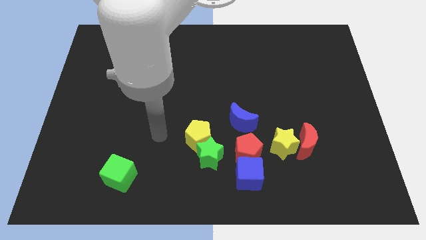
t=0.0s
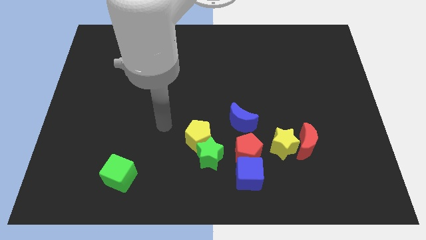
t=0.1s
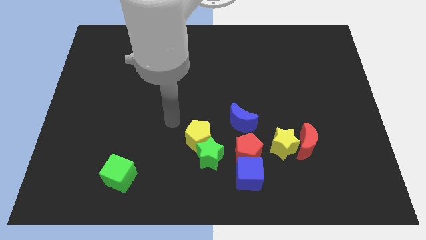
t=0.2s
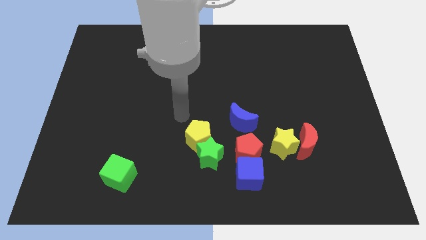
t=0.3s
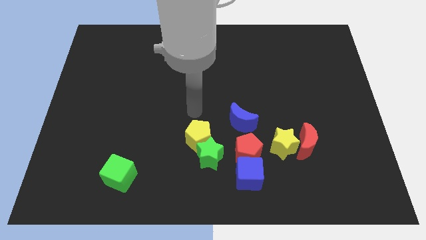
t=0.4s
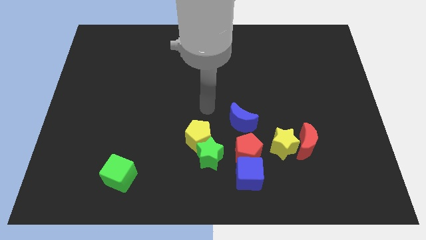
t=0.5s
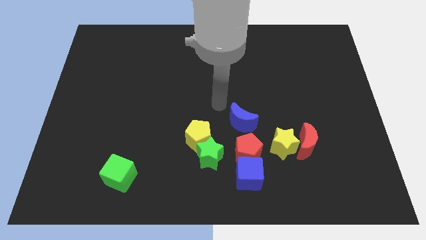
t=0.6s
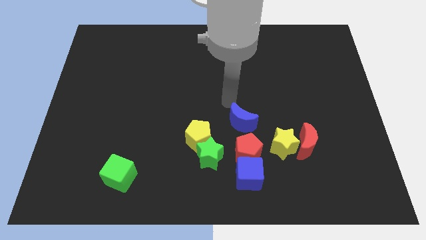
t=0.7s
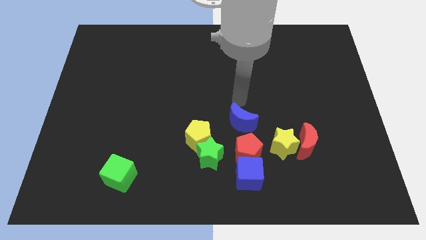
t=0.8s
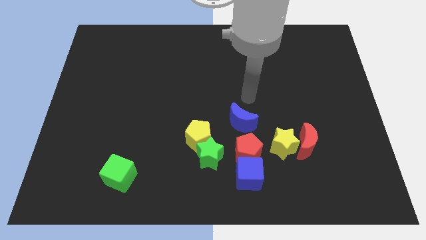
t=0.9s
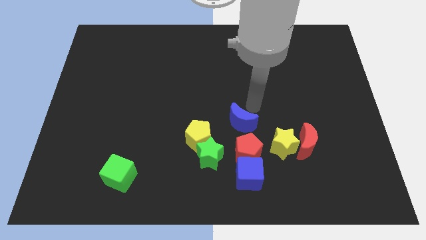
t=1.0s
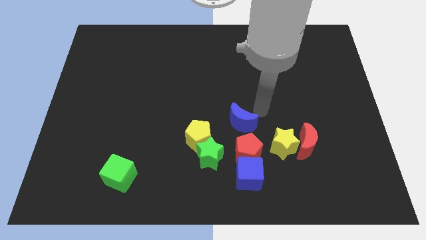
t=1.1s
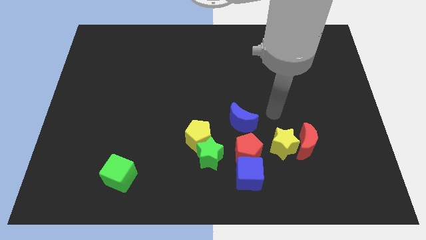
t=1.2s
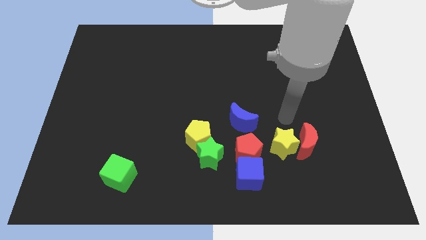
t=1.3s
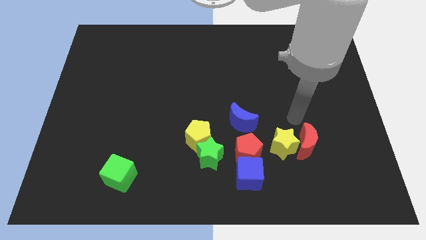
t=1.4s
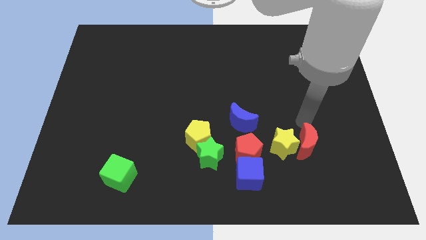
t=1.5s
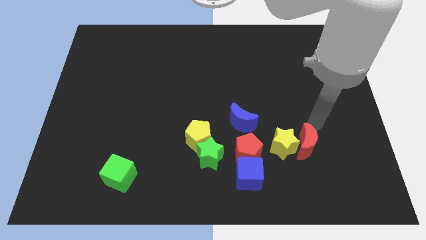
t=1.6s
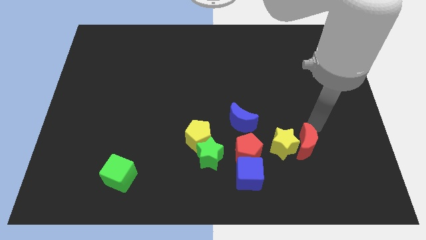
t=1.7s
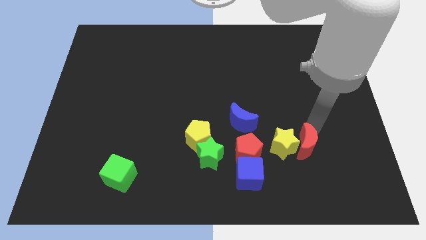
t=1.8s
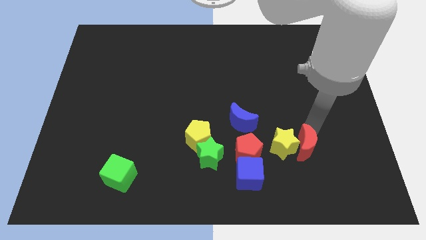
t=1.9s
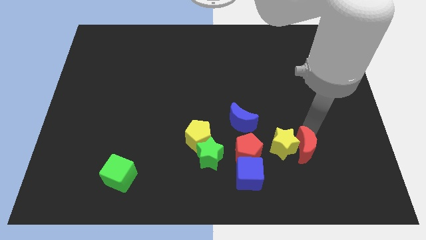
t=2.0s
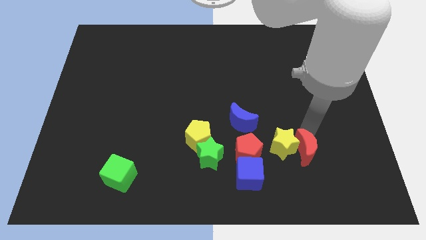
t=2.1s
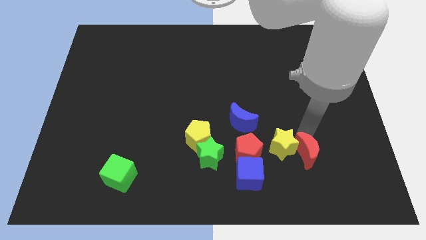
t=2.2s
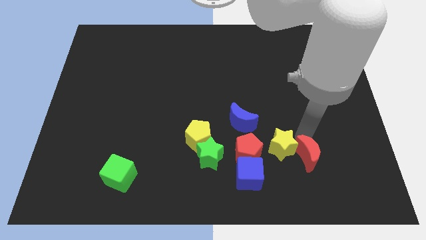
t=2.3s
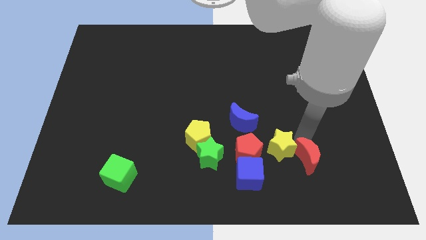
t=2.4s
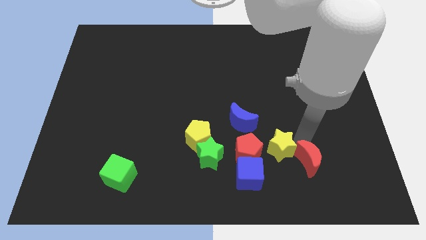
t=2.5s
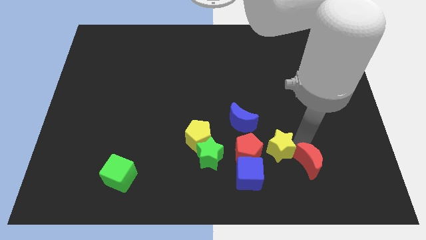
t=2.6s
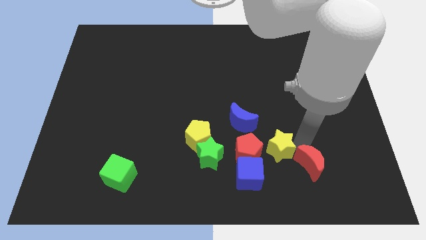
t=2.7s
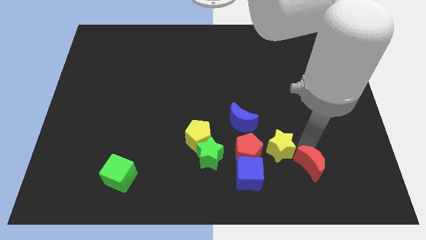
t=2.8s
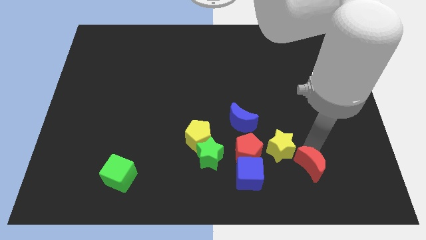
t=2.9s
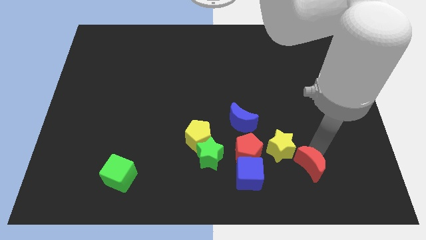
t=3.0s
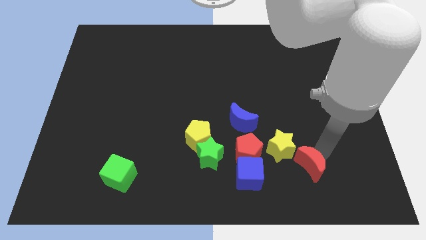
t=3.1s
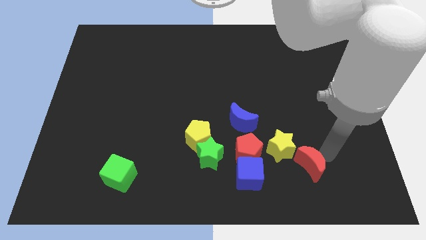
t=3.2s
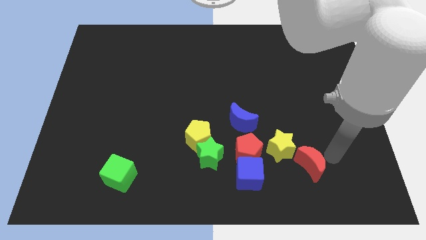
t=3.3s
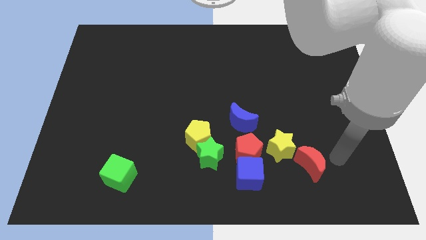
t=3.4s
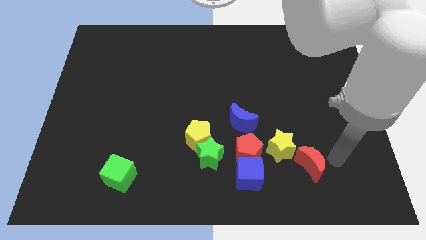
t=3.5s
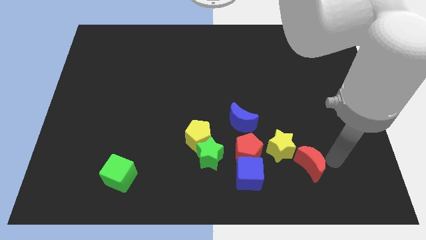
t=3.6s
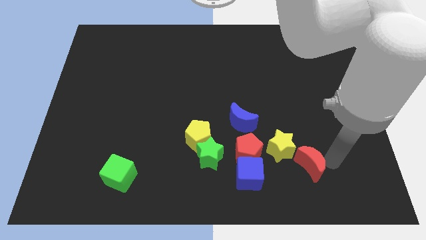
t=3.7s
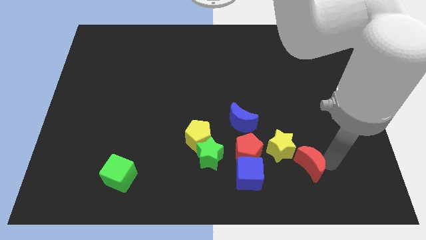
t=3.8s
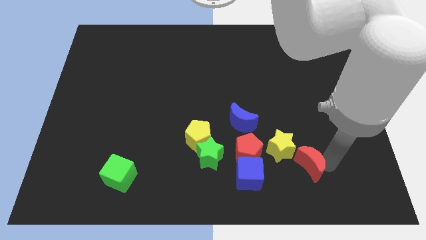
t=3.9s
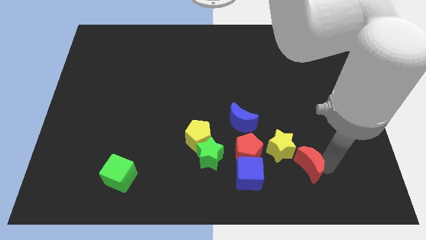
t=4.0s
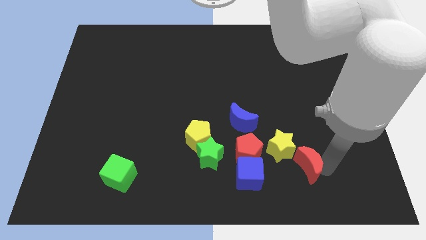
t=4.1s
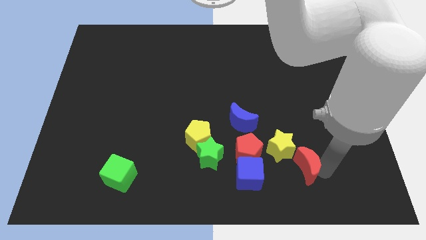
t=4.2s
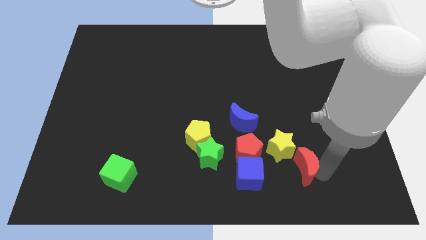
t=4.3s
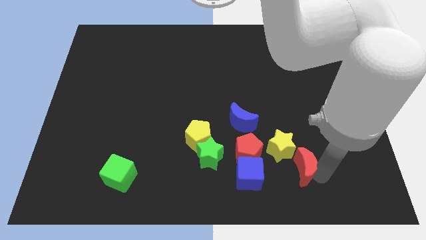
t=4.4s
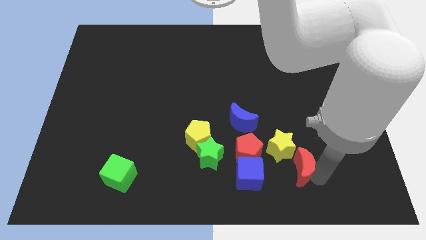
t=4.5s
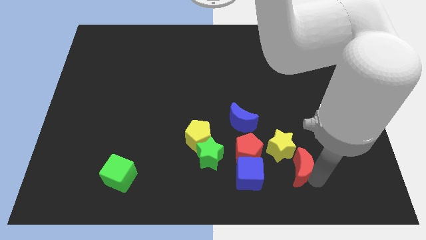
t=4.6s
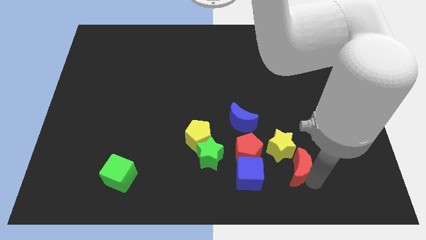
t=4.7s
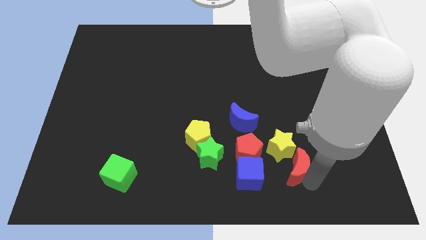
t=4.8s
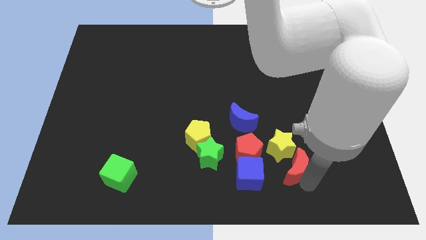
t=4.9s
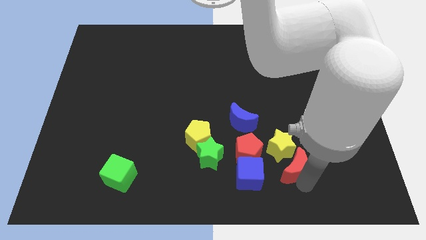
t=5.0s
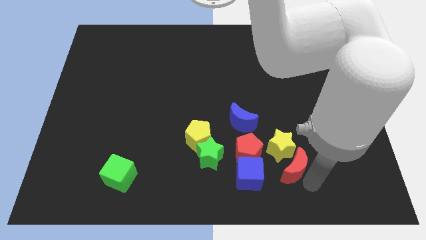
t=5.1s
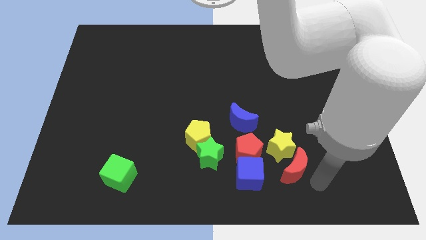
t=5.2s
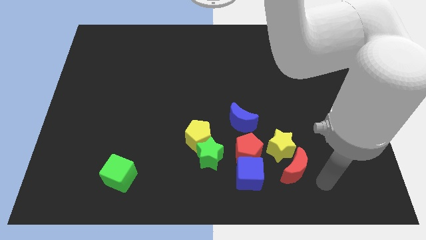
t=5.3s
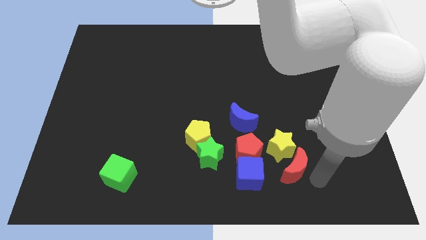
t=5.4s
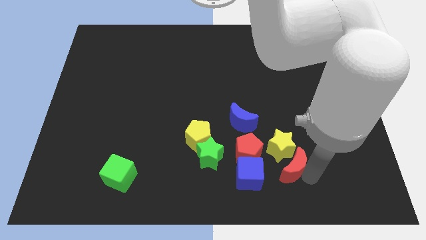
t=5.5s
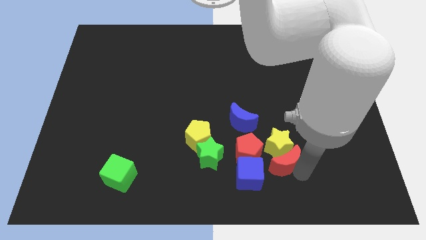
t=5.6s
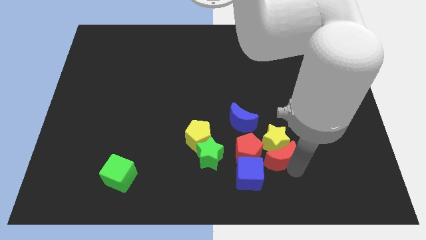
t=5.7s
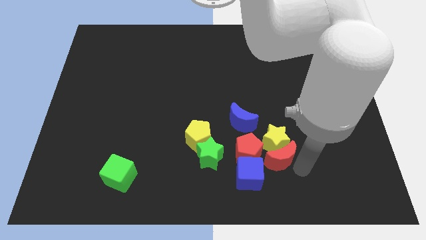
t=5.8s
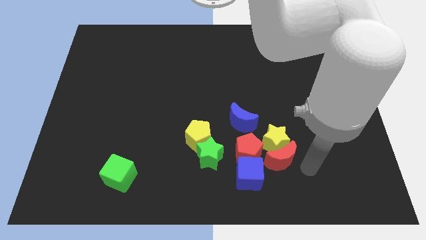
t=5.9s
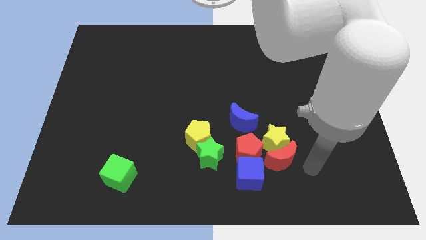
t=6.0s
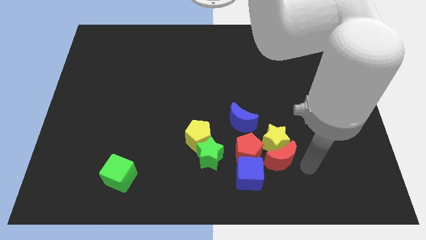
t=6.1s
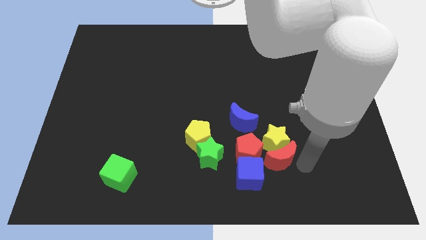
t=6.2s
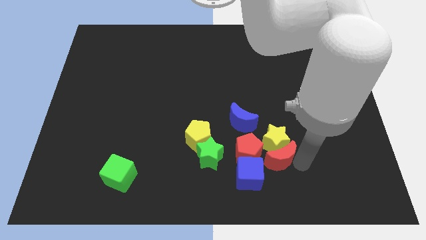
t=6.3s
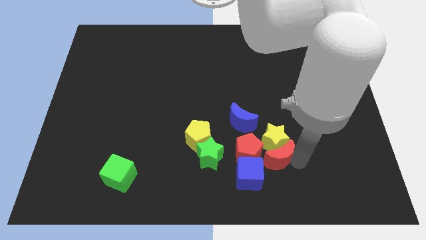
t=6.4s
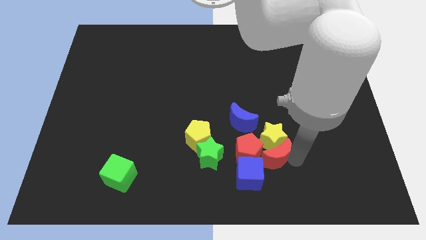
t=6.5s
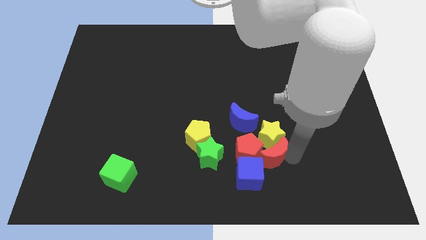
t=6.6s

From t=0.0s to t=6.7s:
move the red moon next to the red pentagon

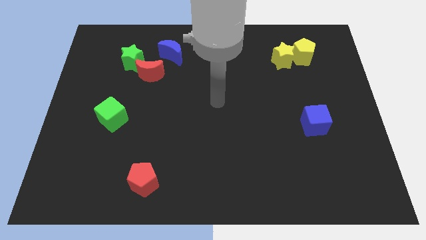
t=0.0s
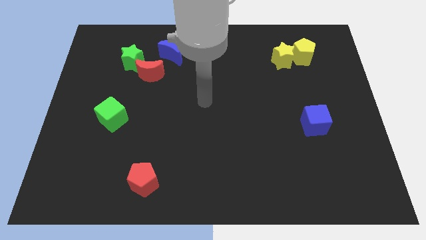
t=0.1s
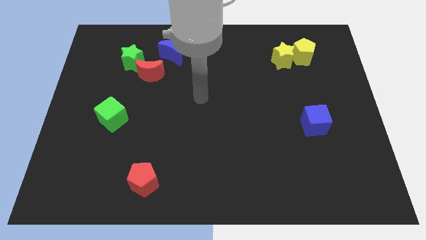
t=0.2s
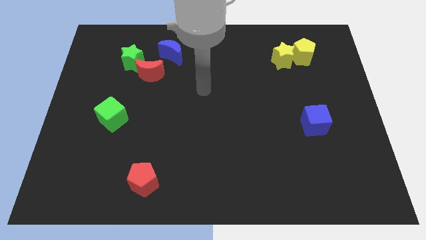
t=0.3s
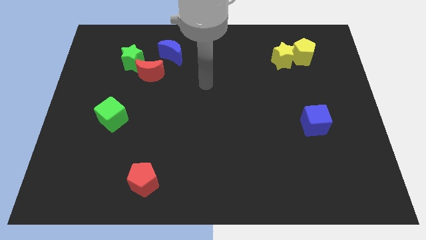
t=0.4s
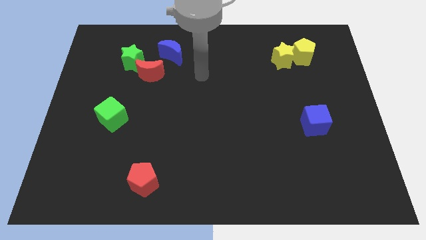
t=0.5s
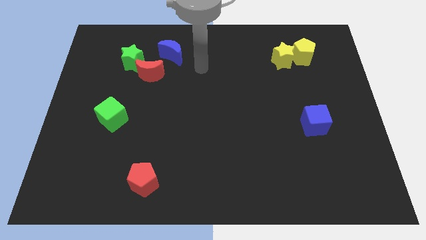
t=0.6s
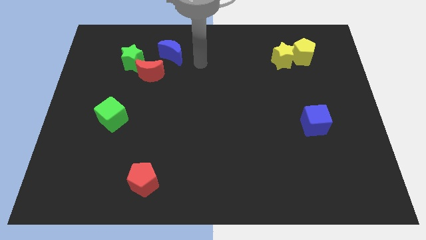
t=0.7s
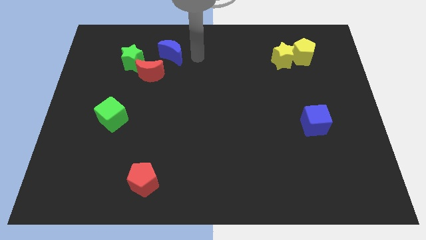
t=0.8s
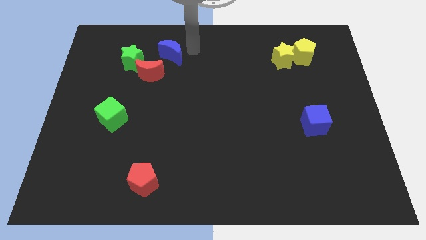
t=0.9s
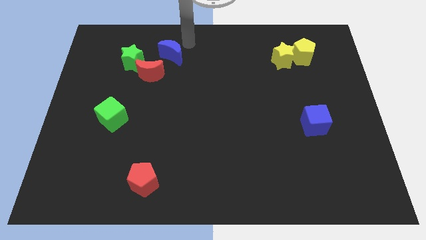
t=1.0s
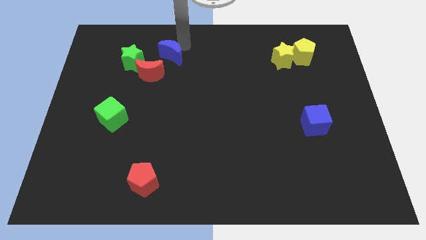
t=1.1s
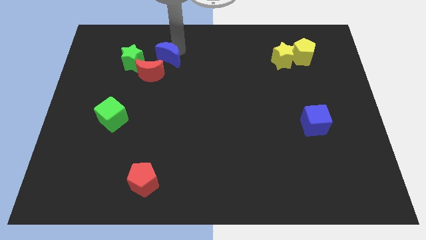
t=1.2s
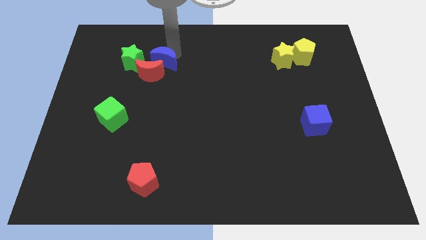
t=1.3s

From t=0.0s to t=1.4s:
push the blue moon to the red moon
